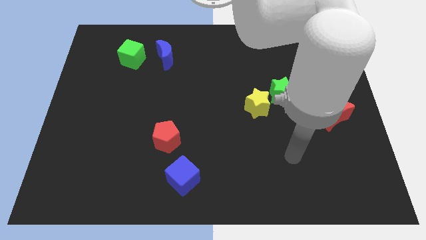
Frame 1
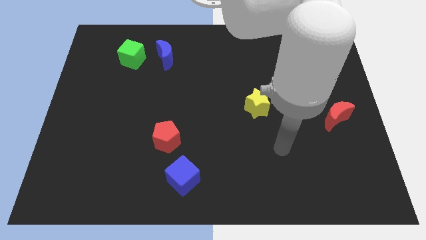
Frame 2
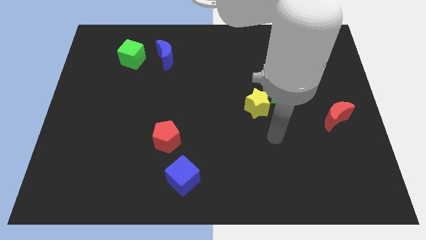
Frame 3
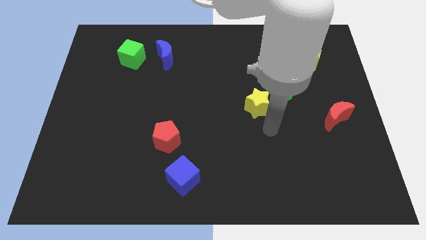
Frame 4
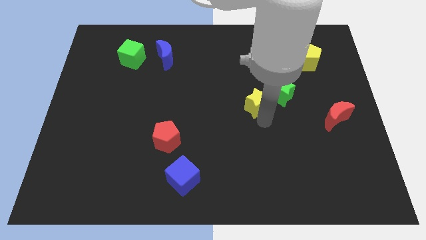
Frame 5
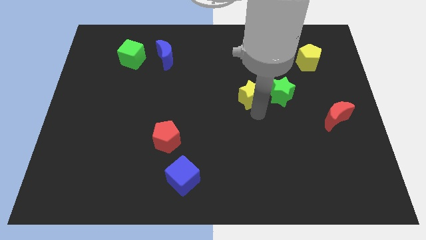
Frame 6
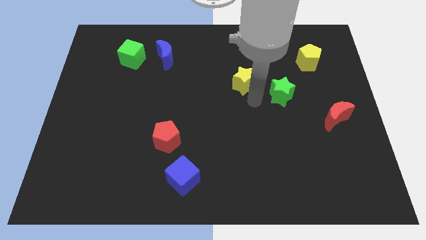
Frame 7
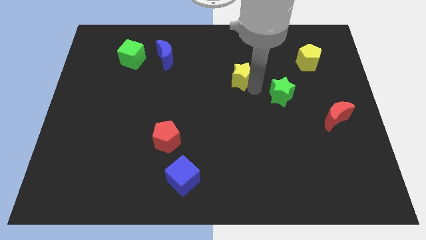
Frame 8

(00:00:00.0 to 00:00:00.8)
move the green star away from the yellow star

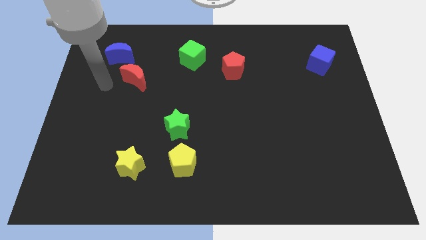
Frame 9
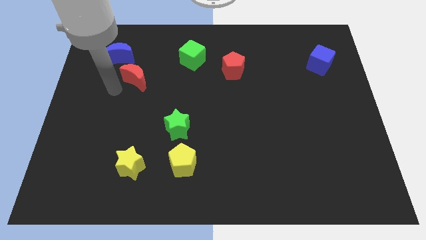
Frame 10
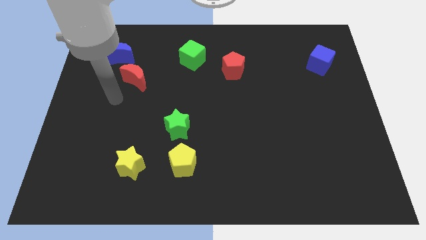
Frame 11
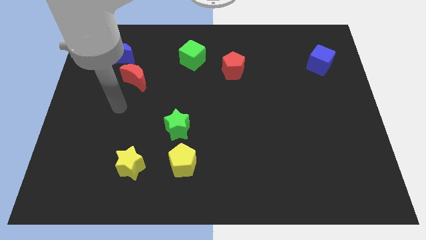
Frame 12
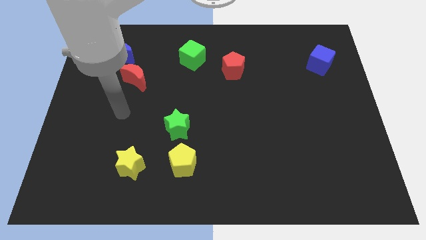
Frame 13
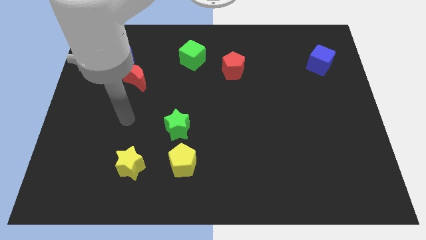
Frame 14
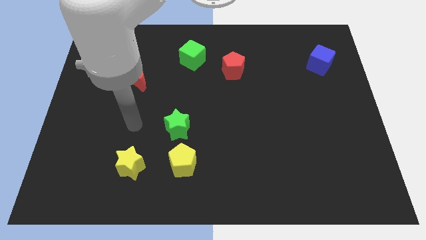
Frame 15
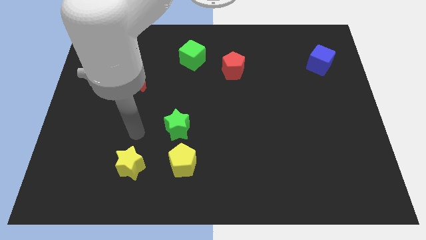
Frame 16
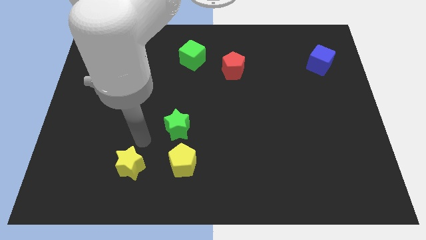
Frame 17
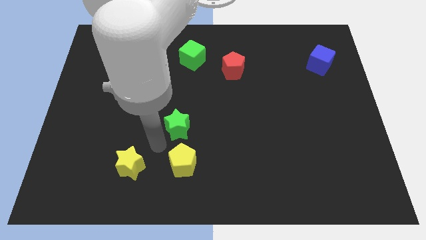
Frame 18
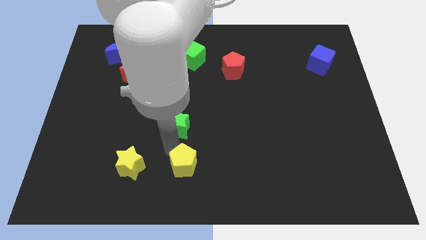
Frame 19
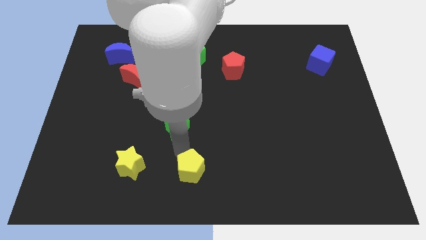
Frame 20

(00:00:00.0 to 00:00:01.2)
move the green star away from the yellow pentagon

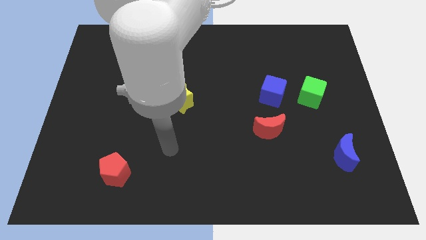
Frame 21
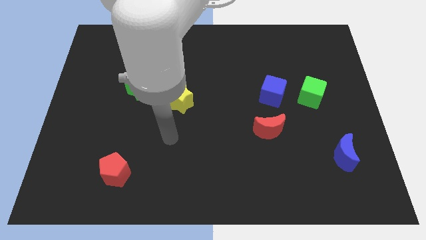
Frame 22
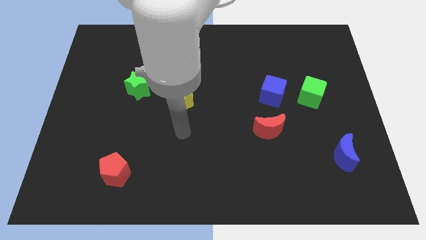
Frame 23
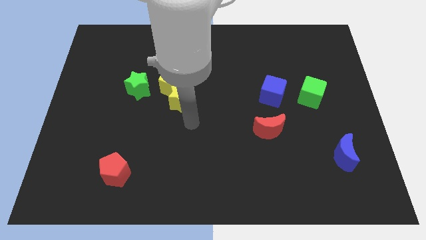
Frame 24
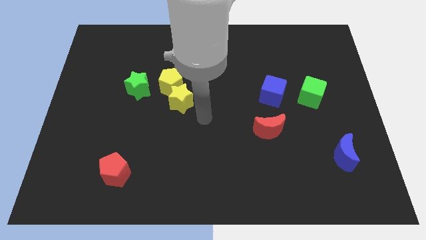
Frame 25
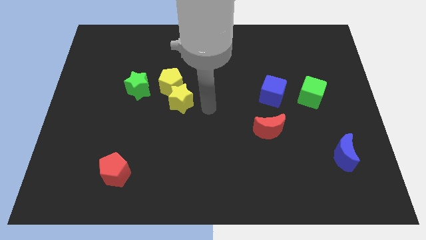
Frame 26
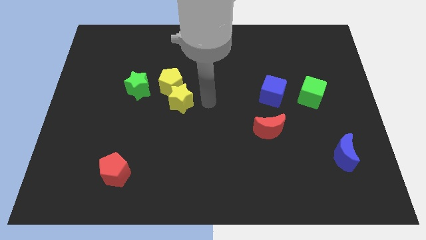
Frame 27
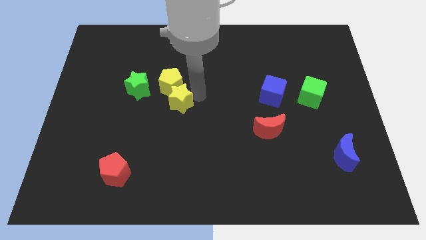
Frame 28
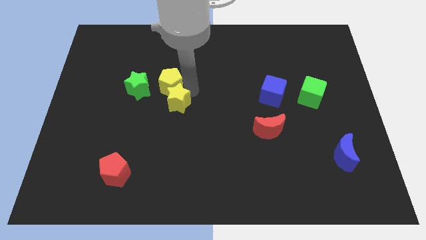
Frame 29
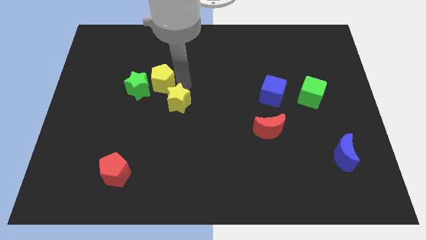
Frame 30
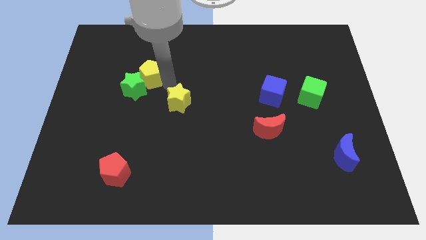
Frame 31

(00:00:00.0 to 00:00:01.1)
pull the yellow star apart from the yellow pentagon

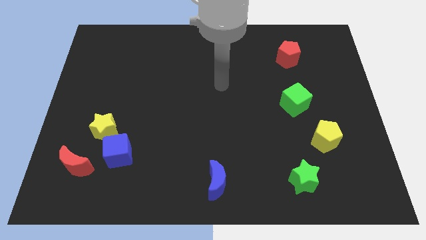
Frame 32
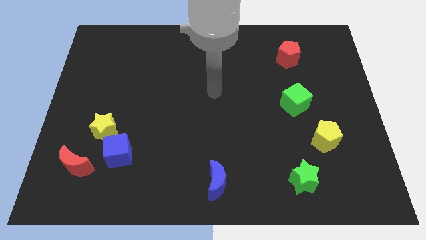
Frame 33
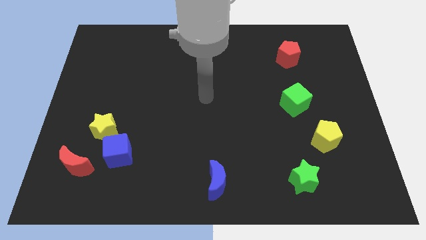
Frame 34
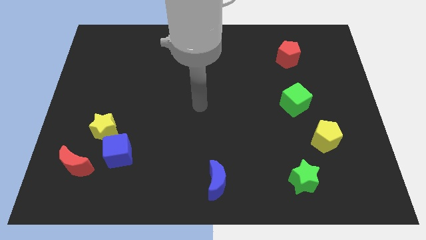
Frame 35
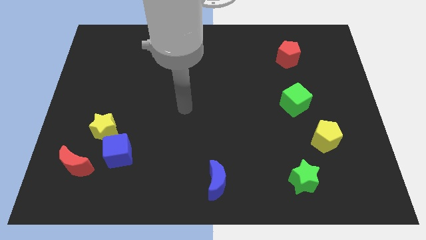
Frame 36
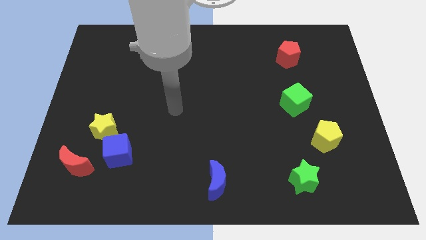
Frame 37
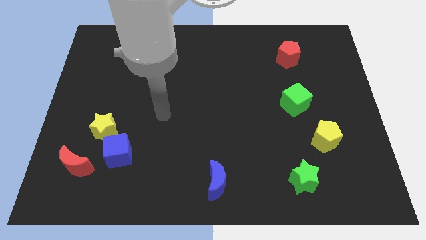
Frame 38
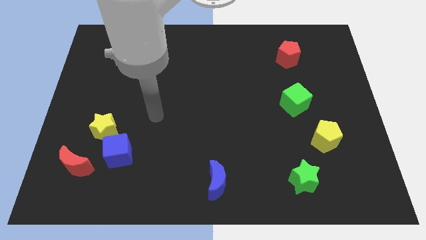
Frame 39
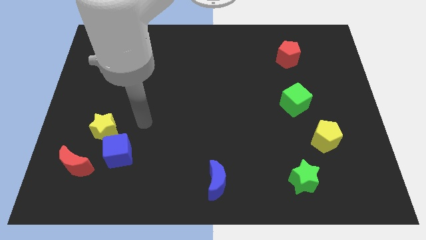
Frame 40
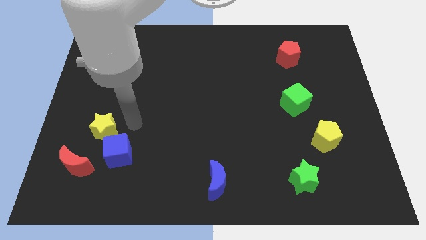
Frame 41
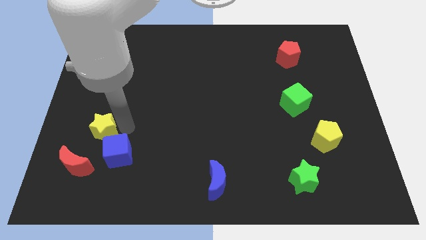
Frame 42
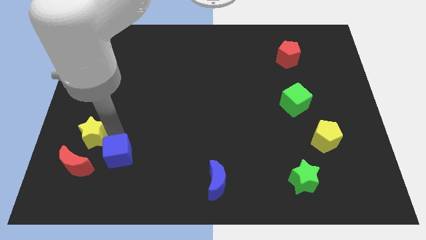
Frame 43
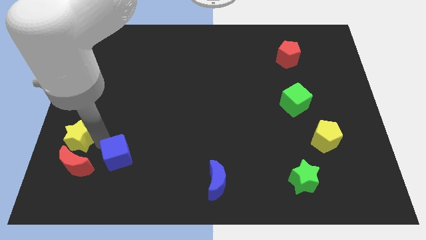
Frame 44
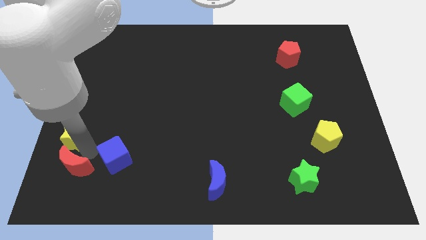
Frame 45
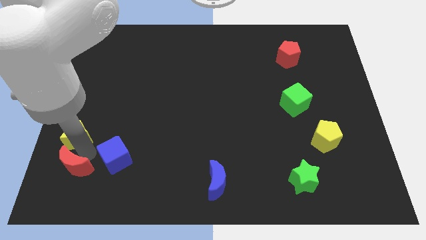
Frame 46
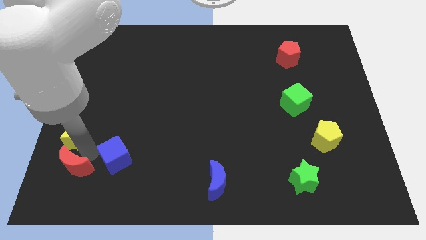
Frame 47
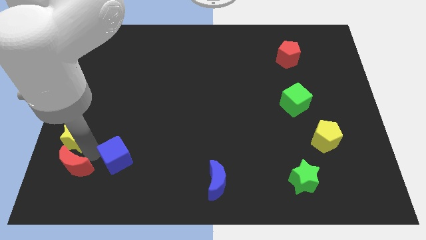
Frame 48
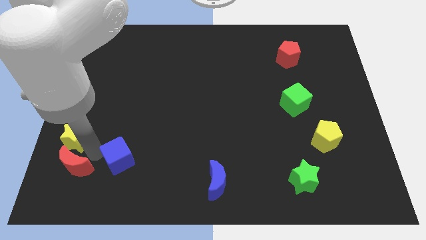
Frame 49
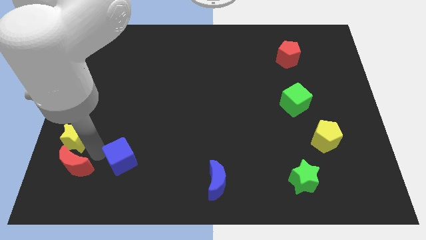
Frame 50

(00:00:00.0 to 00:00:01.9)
pull the blue cube apart from the yellow star and red moon

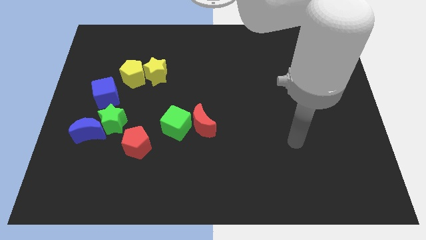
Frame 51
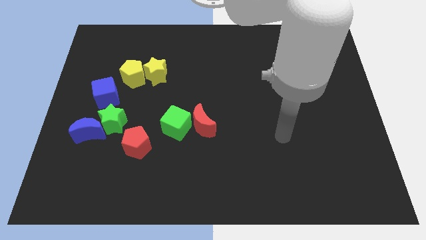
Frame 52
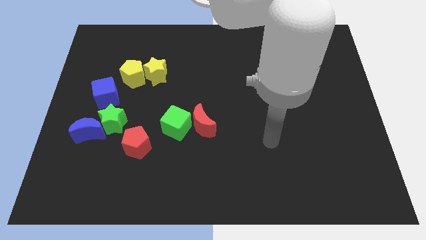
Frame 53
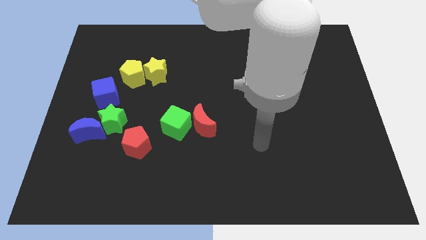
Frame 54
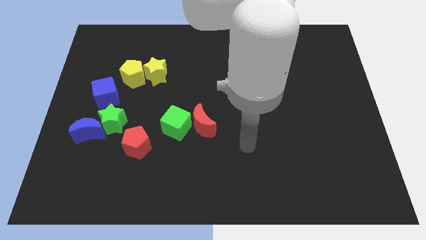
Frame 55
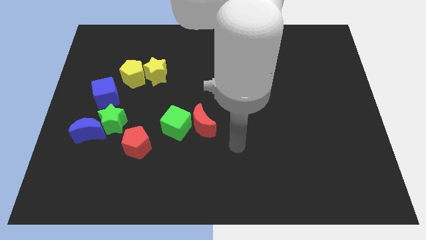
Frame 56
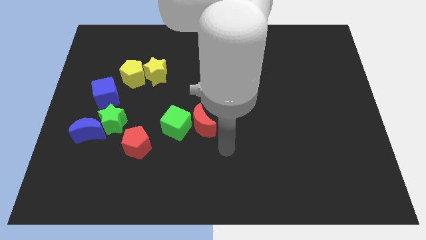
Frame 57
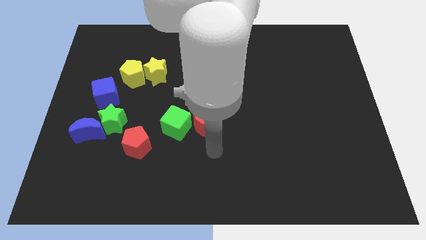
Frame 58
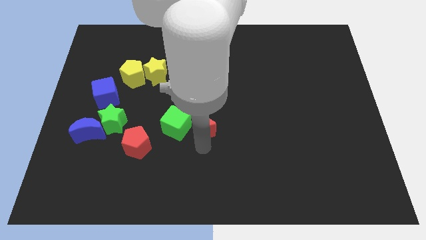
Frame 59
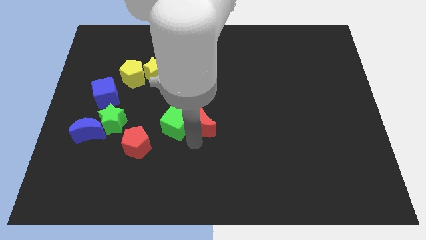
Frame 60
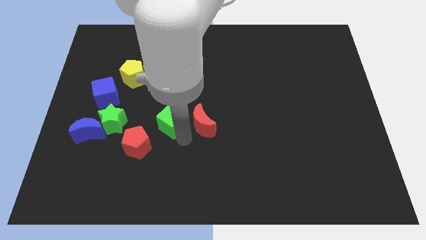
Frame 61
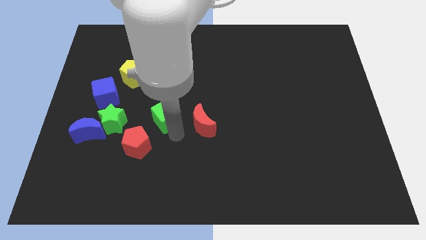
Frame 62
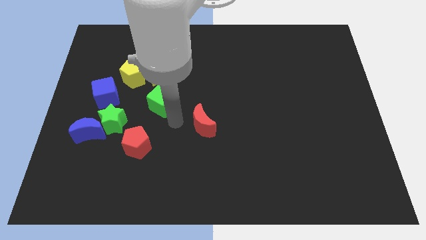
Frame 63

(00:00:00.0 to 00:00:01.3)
separate the red moon from the green cube

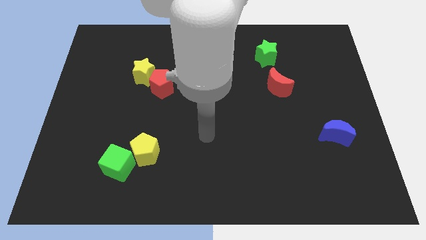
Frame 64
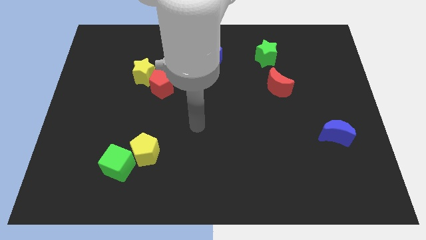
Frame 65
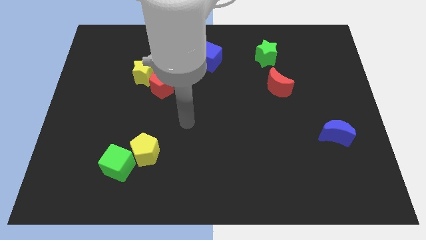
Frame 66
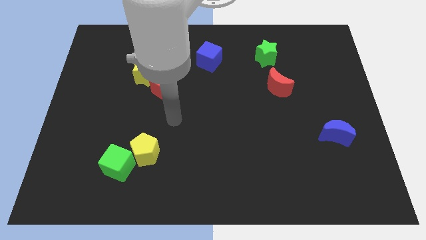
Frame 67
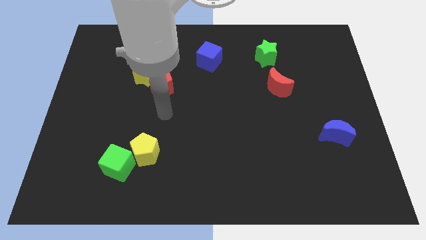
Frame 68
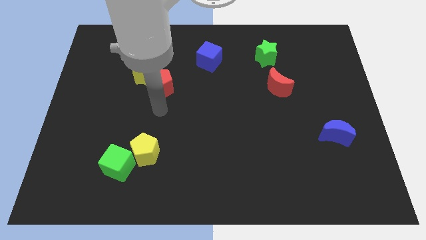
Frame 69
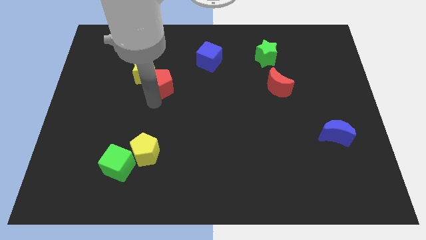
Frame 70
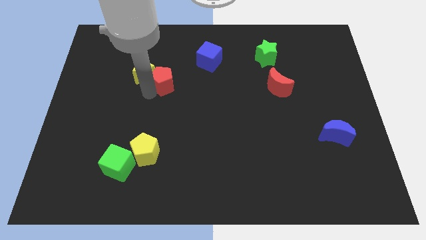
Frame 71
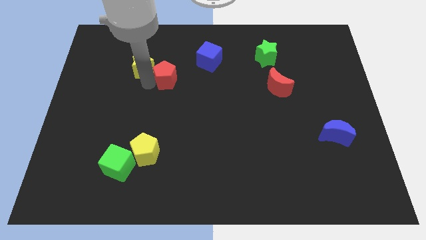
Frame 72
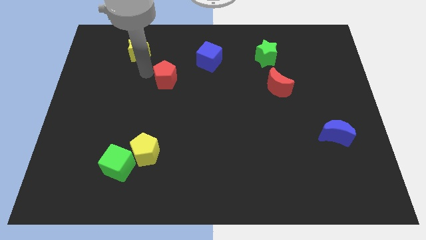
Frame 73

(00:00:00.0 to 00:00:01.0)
separate the red pentagon from the yellow star

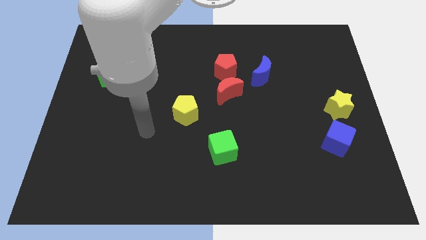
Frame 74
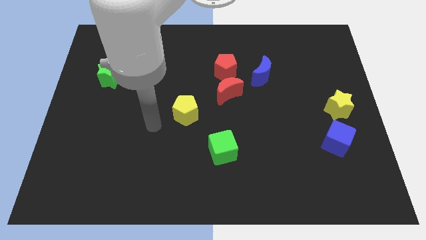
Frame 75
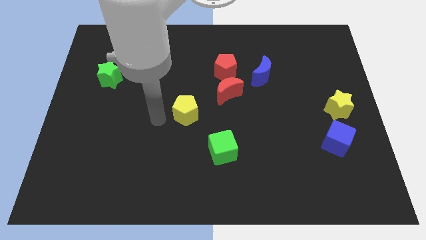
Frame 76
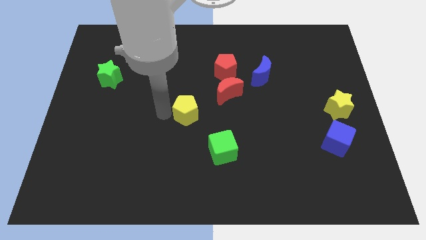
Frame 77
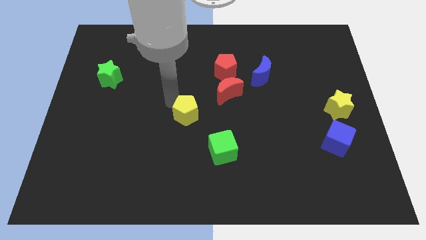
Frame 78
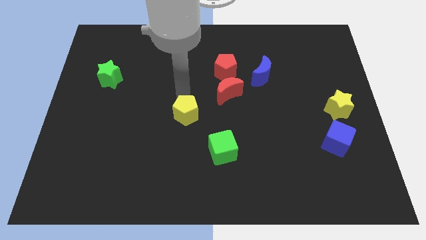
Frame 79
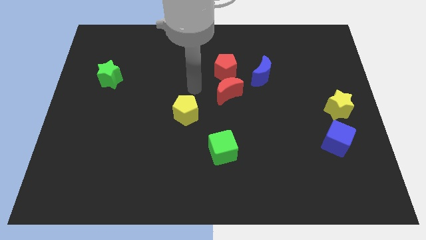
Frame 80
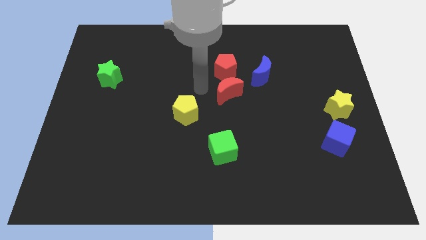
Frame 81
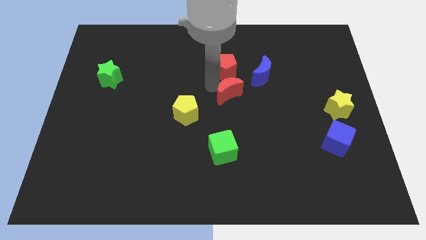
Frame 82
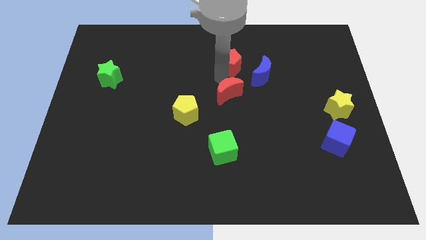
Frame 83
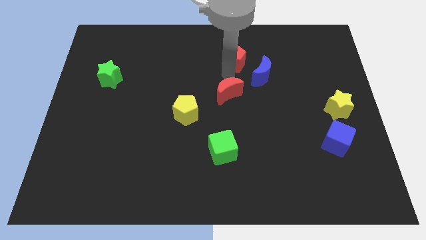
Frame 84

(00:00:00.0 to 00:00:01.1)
pull the red moon apart from the red pentagon

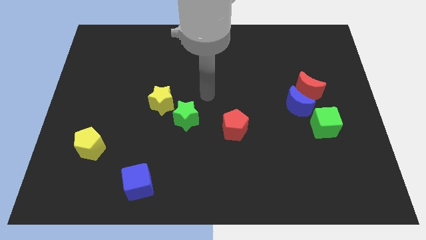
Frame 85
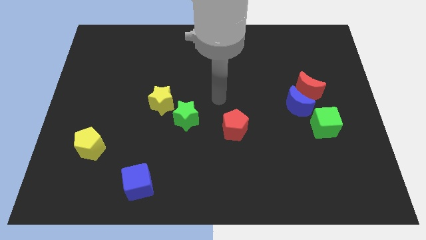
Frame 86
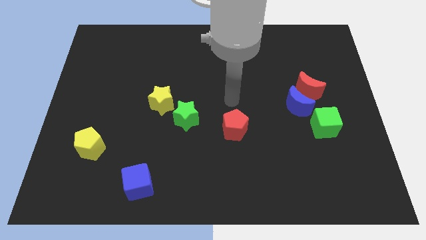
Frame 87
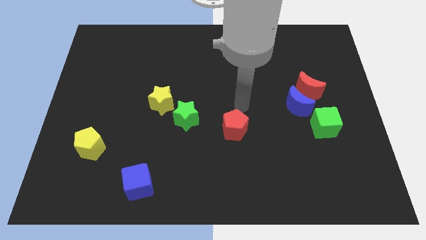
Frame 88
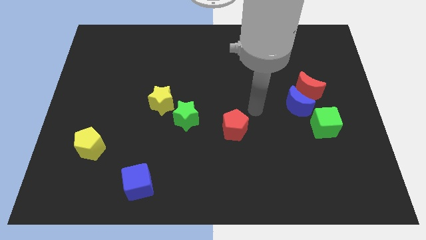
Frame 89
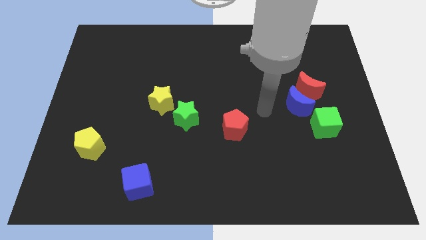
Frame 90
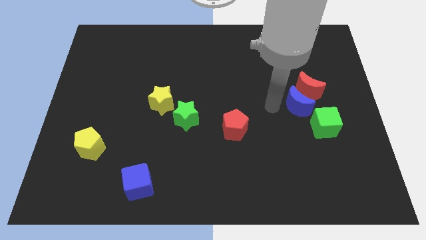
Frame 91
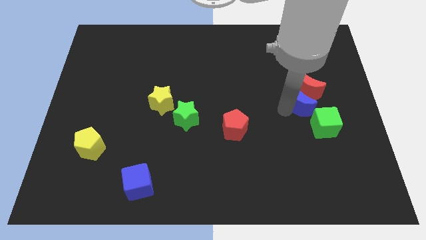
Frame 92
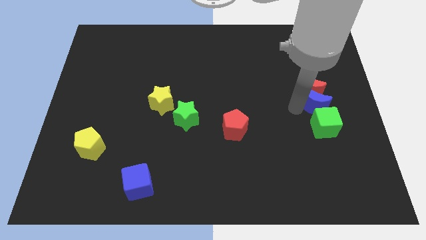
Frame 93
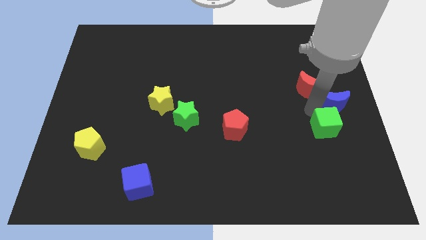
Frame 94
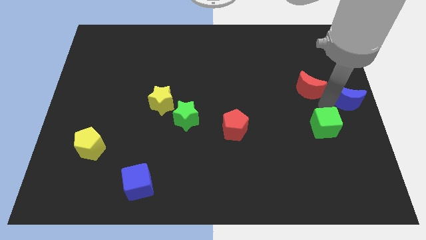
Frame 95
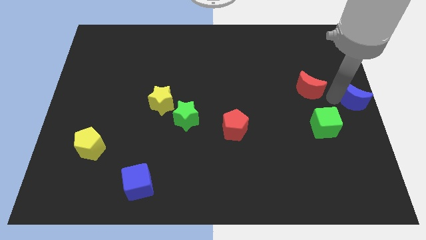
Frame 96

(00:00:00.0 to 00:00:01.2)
pull the red moon apart from the blue moon
